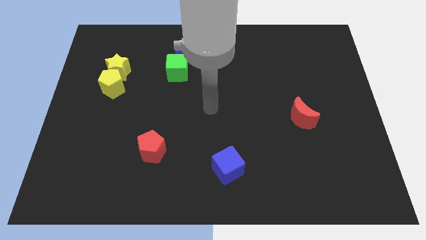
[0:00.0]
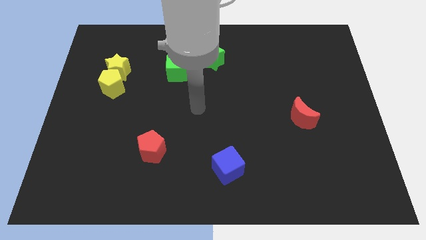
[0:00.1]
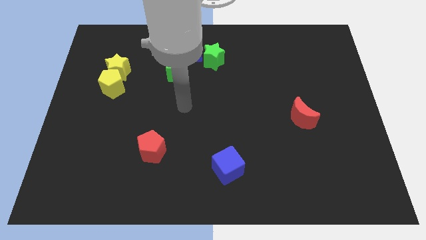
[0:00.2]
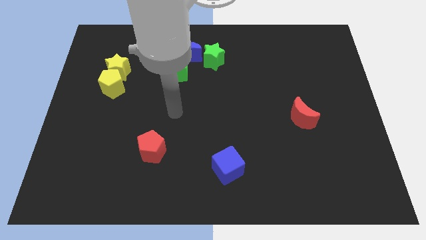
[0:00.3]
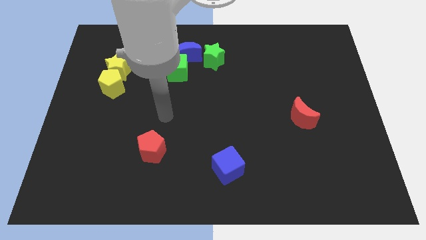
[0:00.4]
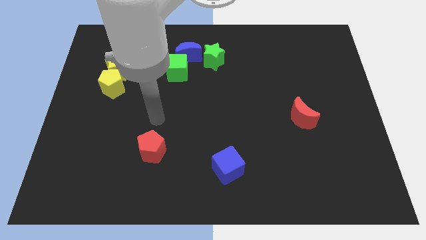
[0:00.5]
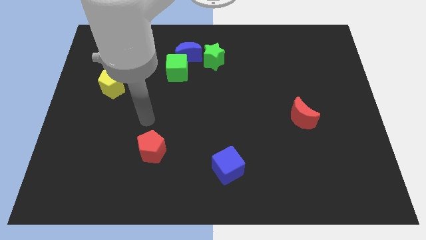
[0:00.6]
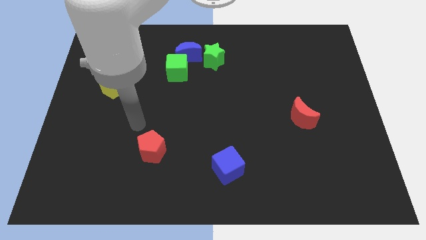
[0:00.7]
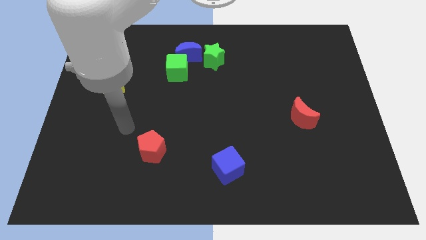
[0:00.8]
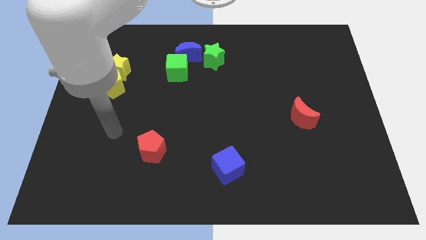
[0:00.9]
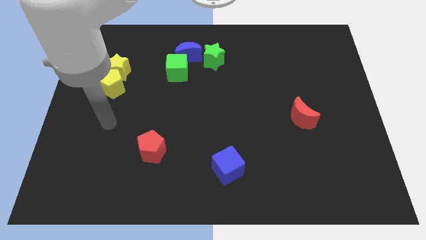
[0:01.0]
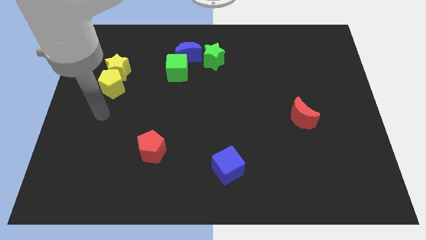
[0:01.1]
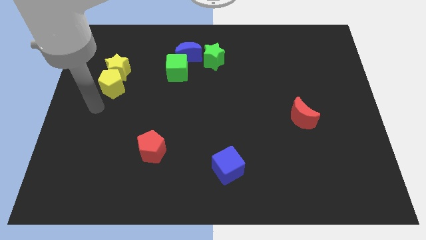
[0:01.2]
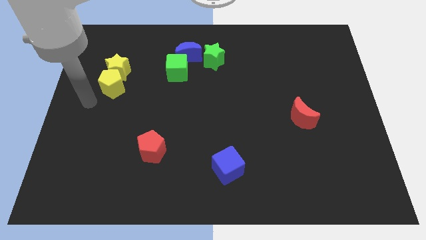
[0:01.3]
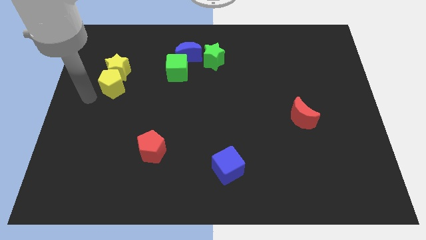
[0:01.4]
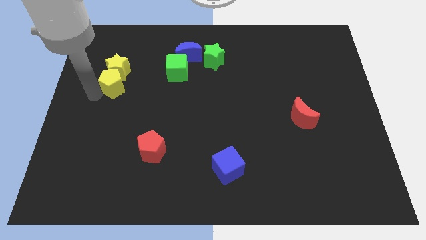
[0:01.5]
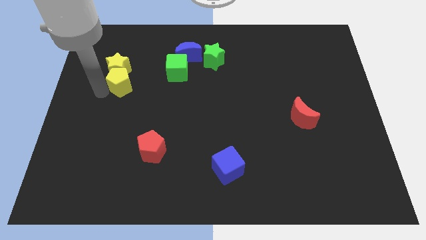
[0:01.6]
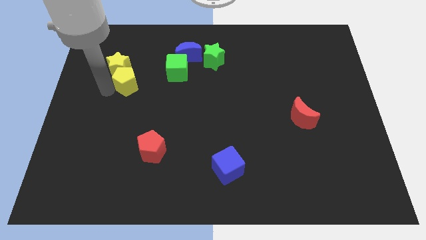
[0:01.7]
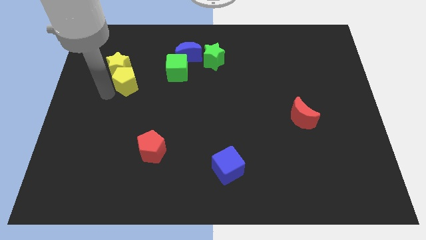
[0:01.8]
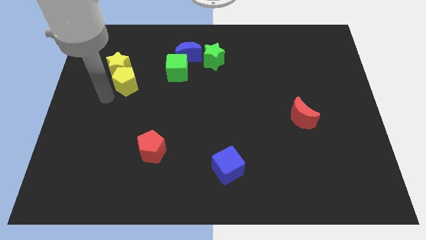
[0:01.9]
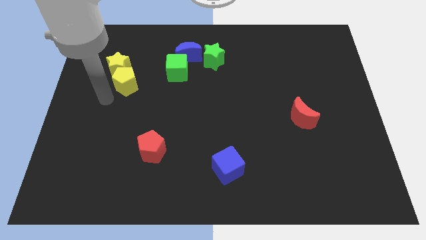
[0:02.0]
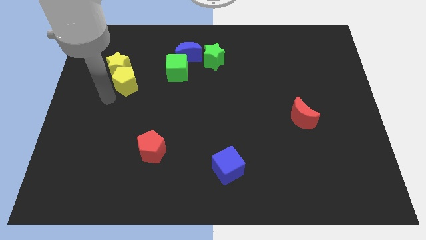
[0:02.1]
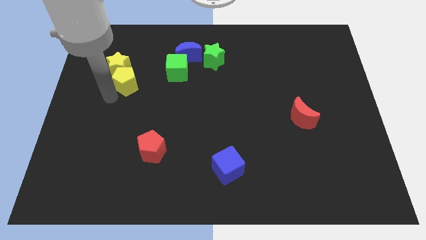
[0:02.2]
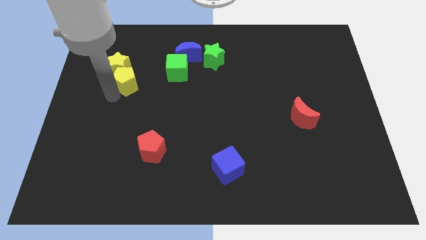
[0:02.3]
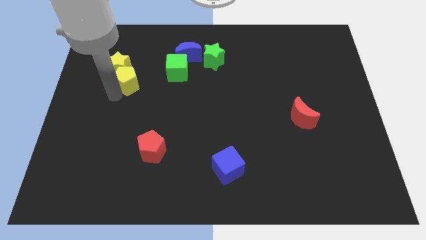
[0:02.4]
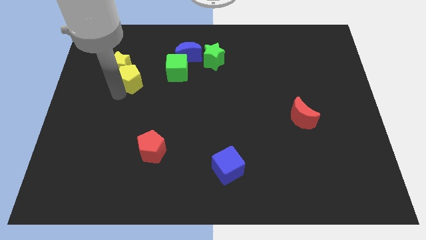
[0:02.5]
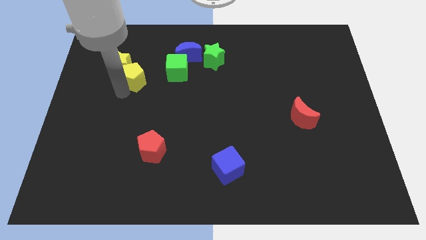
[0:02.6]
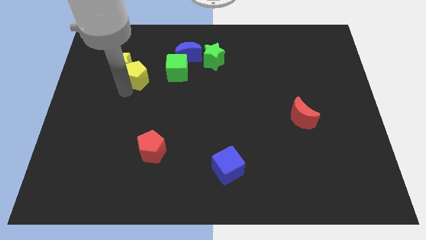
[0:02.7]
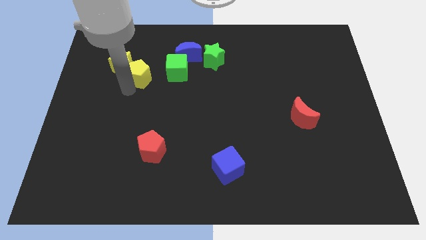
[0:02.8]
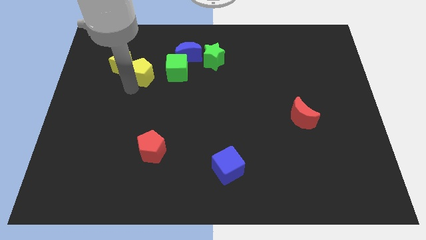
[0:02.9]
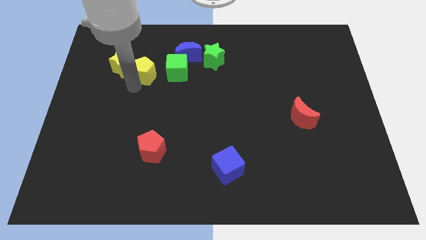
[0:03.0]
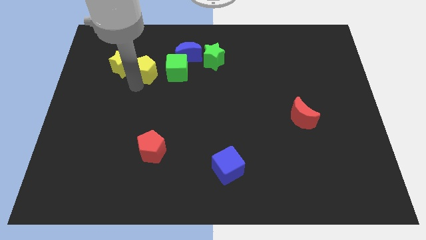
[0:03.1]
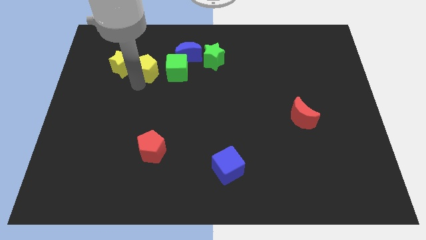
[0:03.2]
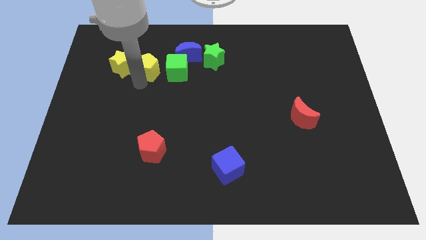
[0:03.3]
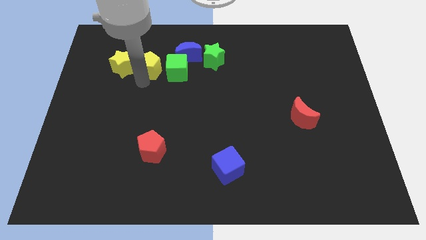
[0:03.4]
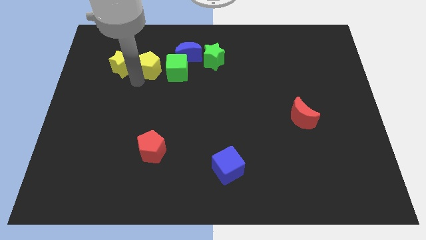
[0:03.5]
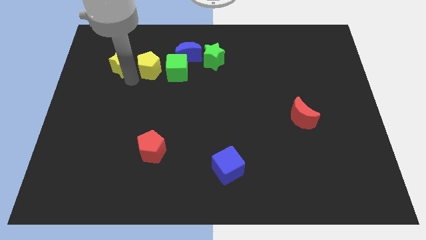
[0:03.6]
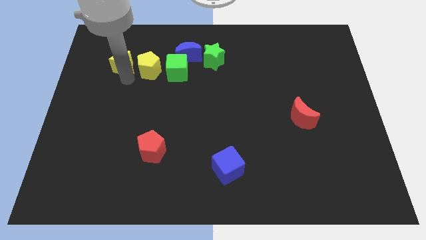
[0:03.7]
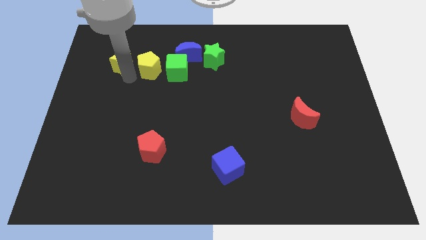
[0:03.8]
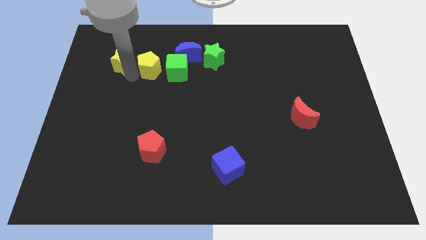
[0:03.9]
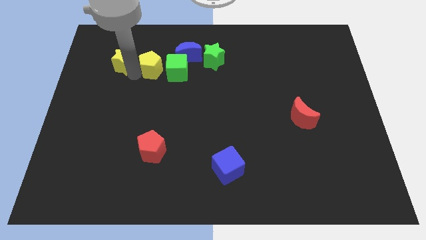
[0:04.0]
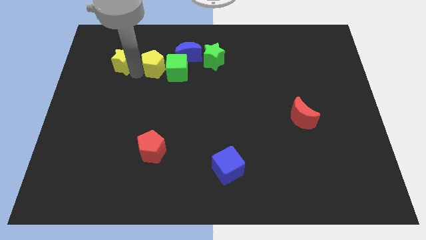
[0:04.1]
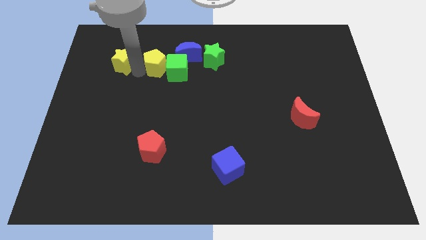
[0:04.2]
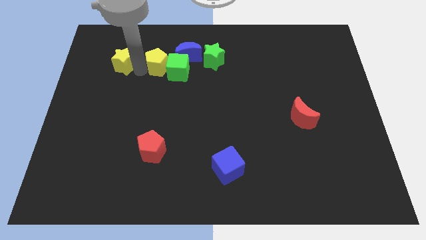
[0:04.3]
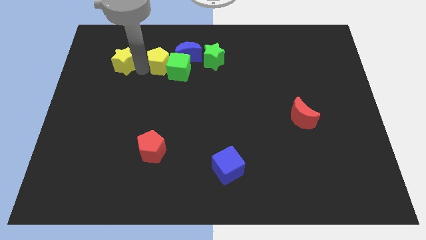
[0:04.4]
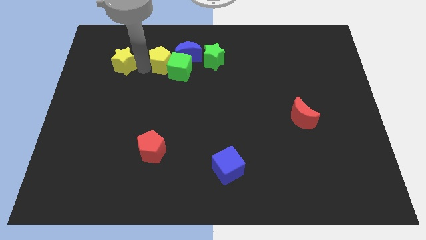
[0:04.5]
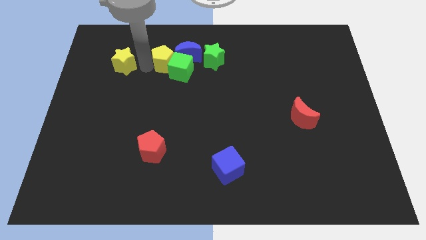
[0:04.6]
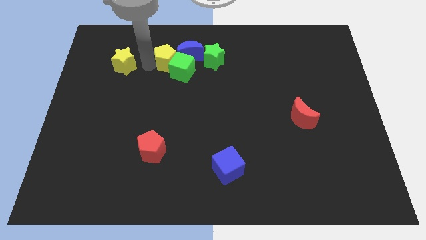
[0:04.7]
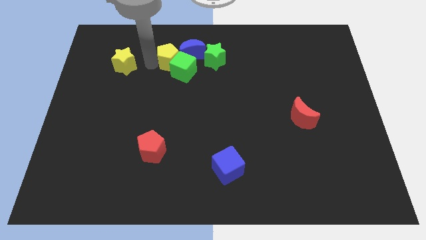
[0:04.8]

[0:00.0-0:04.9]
slide the yellow pentagon close to the blue moon
